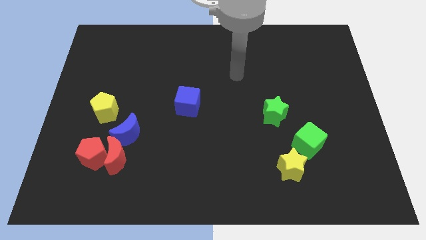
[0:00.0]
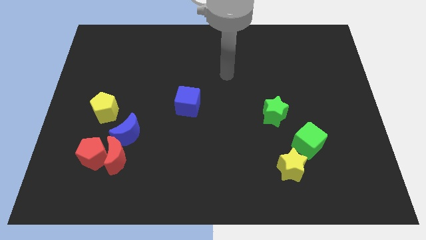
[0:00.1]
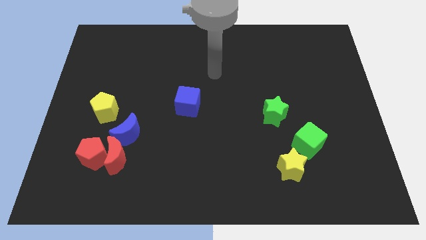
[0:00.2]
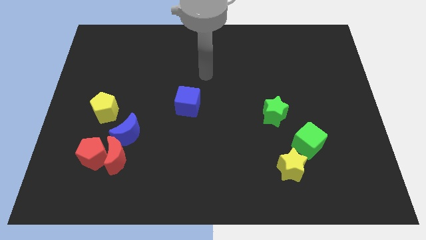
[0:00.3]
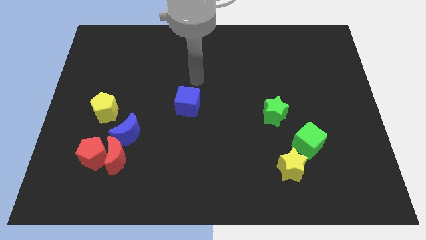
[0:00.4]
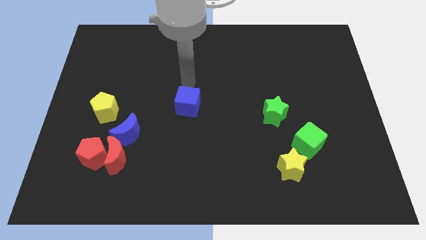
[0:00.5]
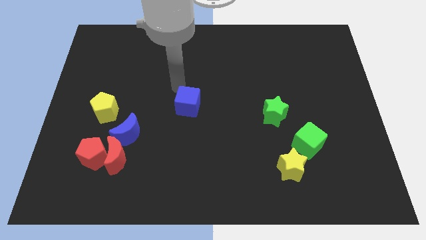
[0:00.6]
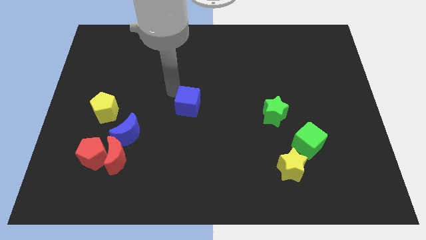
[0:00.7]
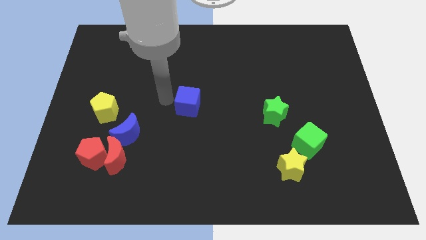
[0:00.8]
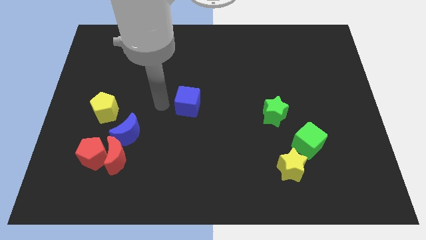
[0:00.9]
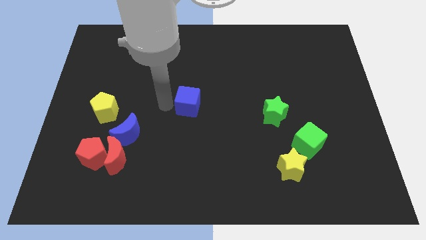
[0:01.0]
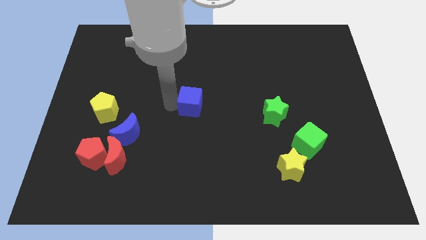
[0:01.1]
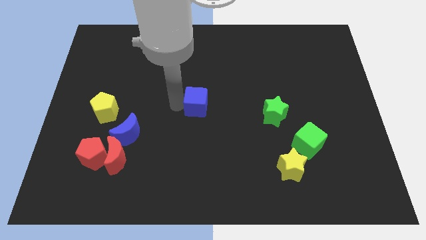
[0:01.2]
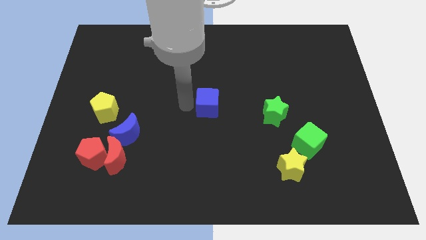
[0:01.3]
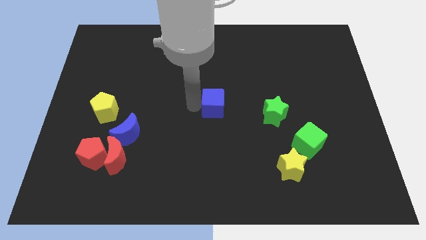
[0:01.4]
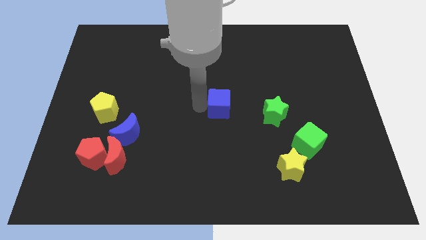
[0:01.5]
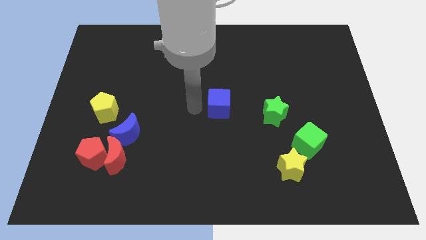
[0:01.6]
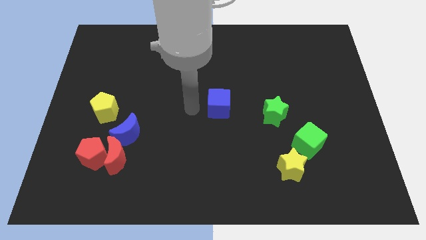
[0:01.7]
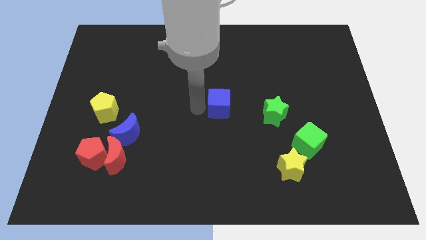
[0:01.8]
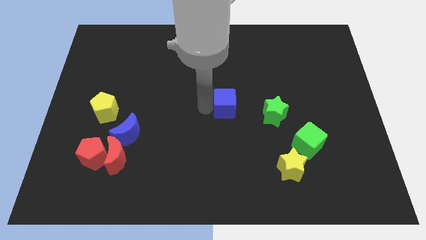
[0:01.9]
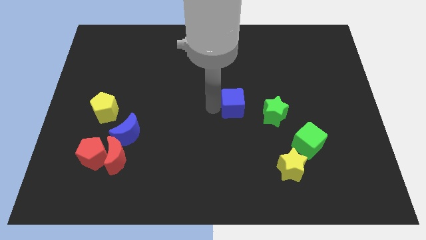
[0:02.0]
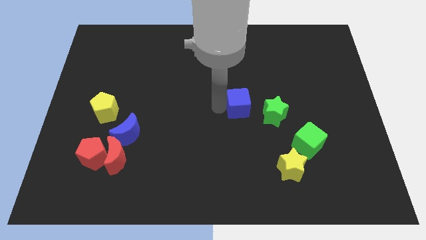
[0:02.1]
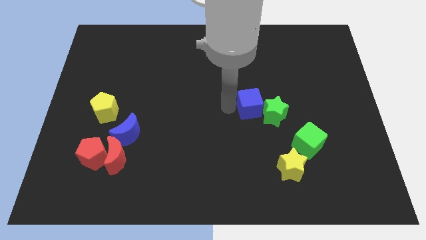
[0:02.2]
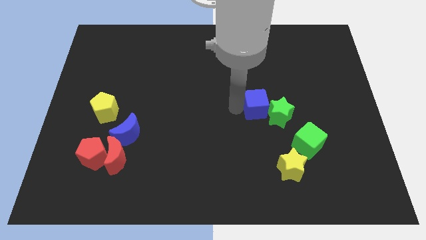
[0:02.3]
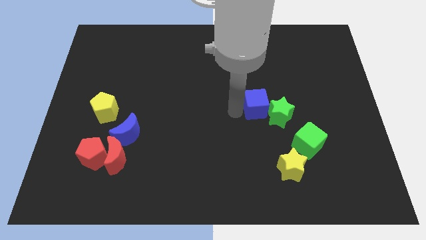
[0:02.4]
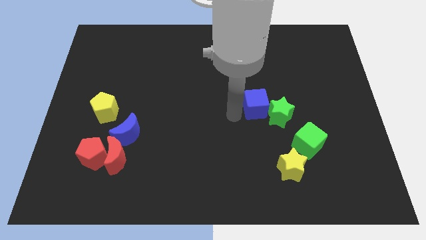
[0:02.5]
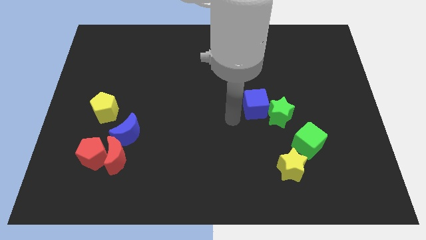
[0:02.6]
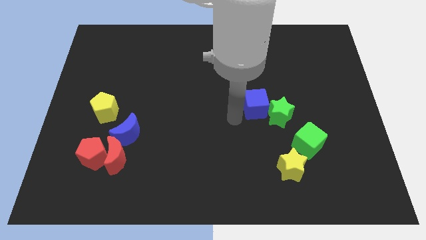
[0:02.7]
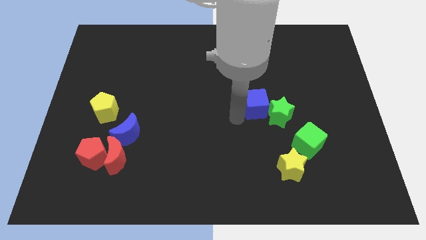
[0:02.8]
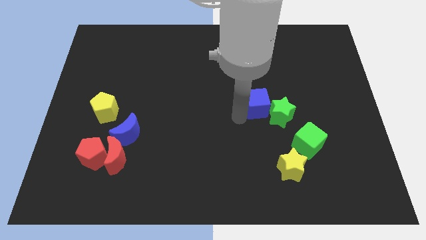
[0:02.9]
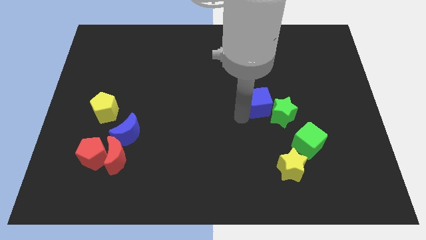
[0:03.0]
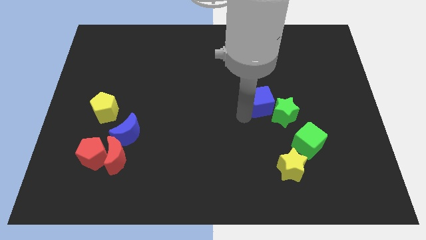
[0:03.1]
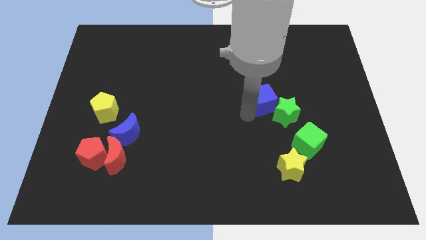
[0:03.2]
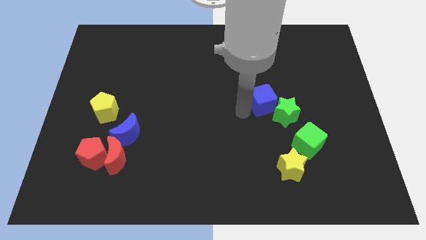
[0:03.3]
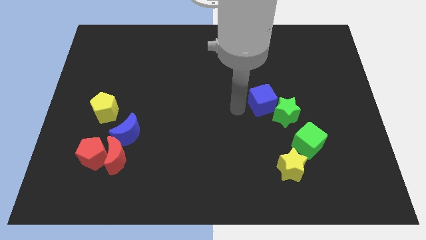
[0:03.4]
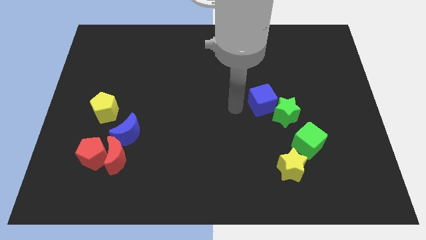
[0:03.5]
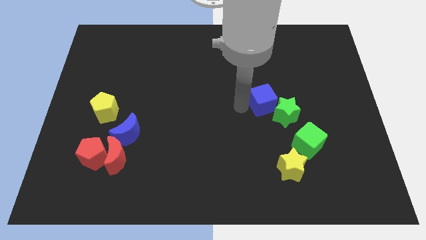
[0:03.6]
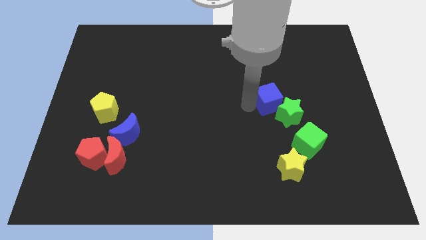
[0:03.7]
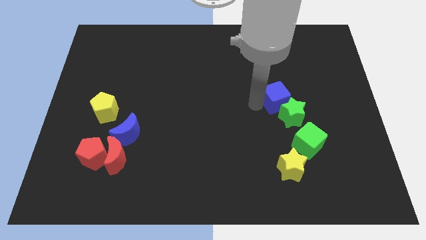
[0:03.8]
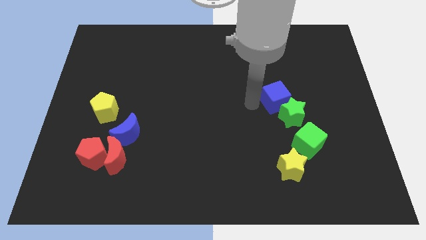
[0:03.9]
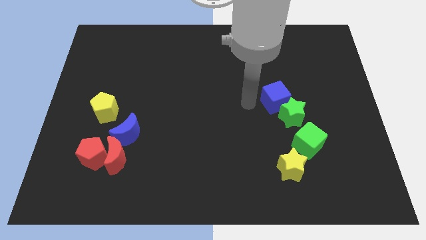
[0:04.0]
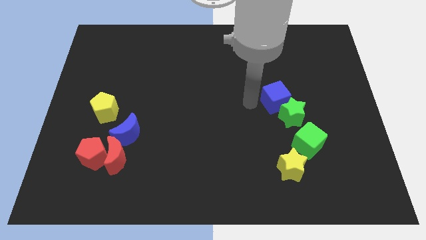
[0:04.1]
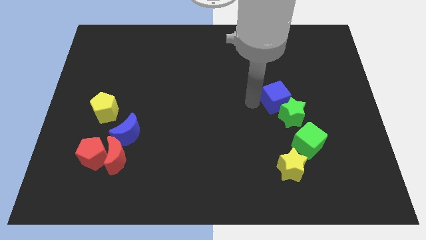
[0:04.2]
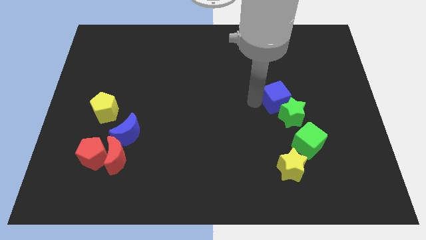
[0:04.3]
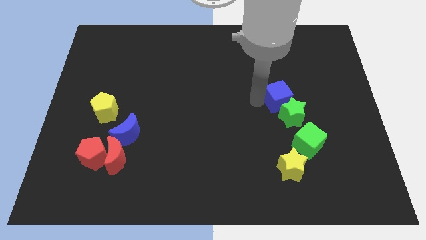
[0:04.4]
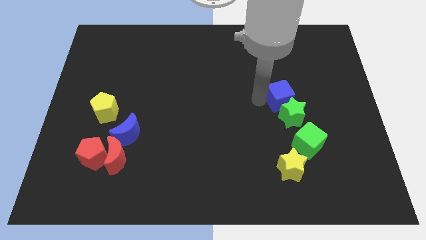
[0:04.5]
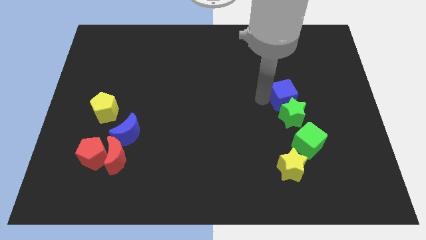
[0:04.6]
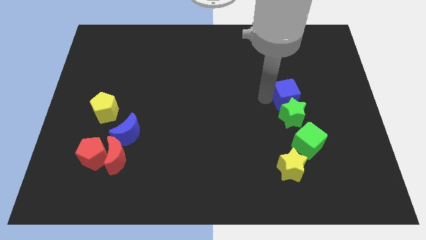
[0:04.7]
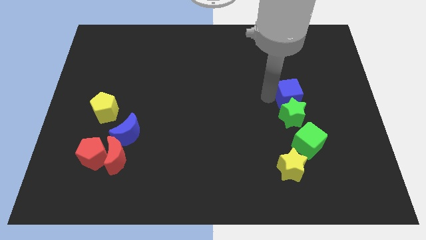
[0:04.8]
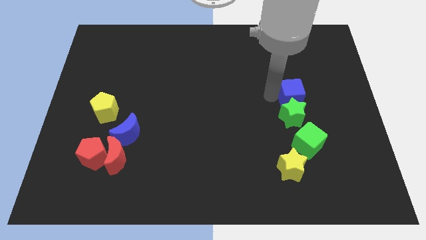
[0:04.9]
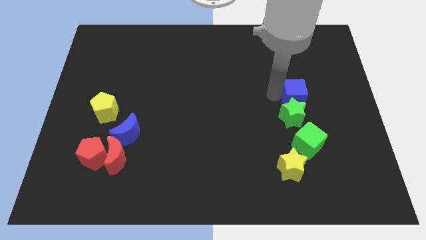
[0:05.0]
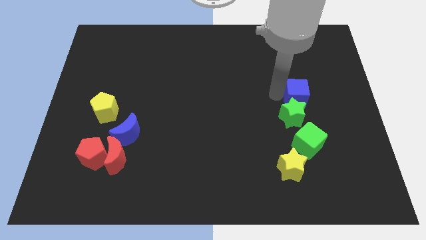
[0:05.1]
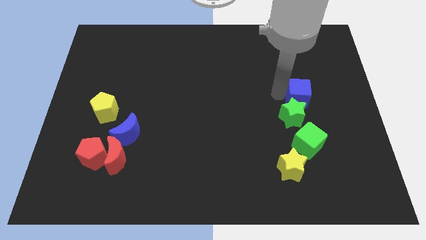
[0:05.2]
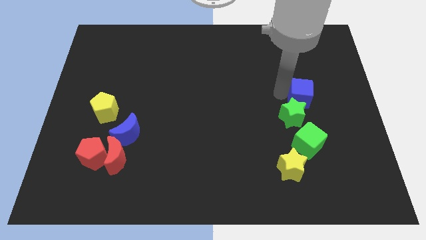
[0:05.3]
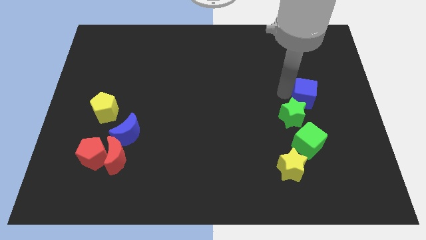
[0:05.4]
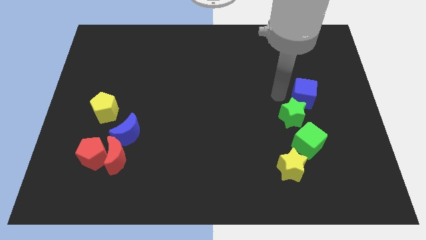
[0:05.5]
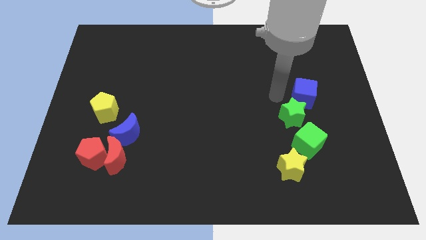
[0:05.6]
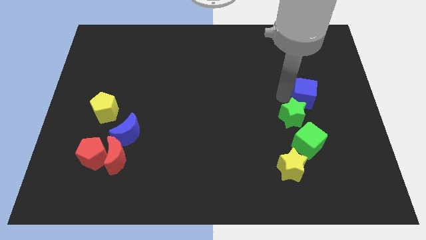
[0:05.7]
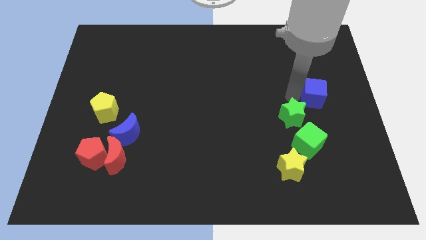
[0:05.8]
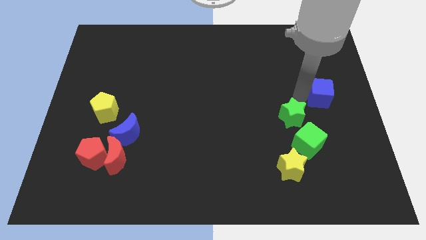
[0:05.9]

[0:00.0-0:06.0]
put the blue cube to the right side

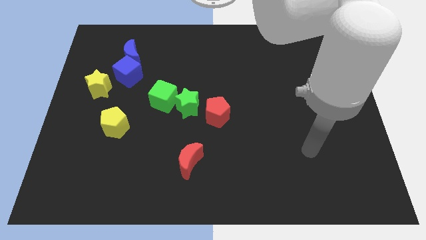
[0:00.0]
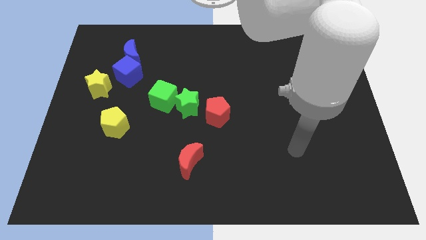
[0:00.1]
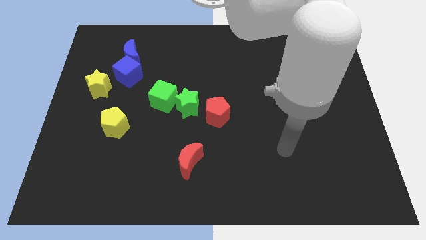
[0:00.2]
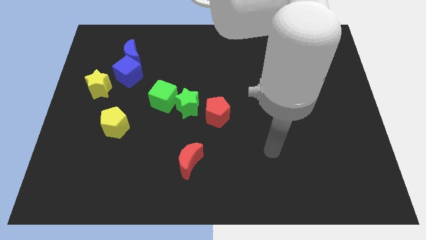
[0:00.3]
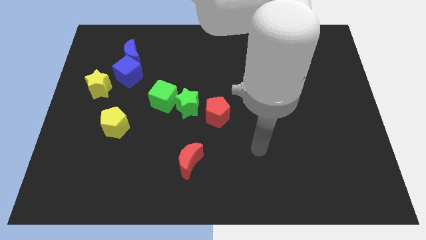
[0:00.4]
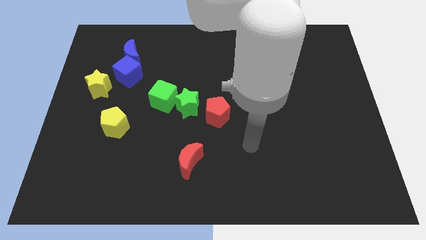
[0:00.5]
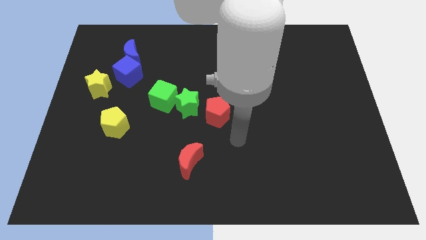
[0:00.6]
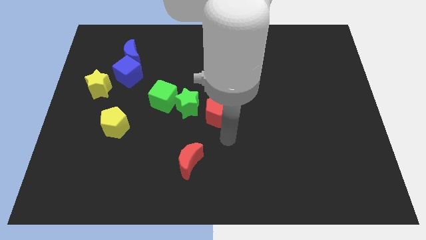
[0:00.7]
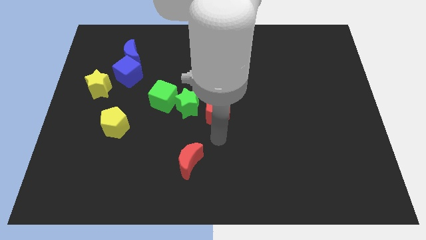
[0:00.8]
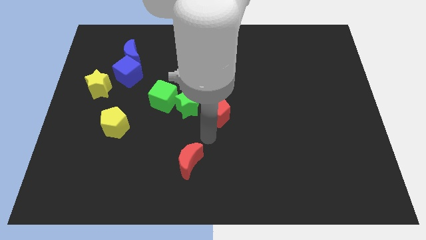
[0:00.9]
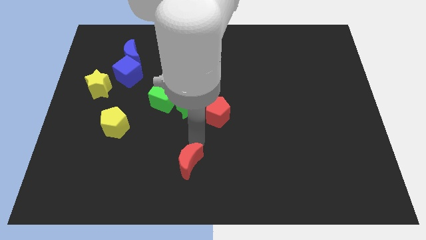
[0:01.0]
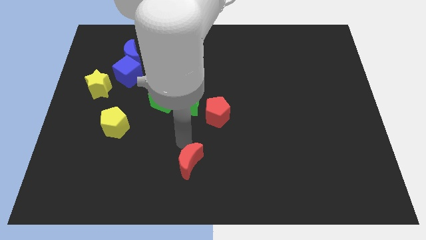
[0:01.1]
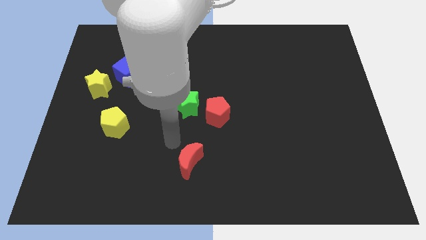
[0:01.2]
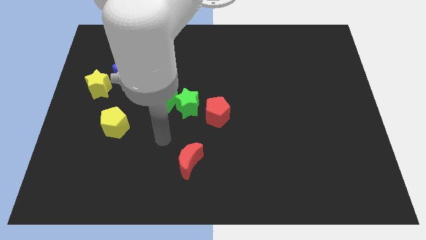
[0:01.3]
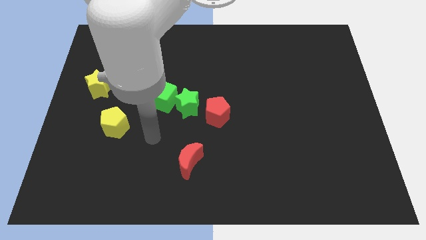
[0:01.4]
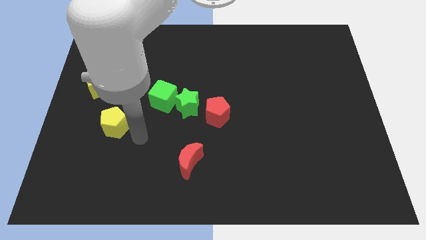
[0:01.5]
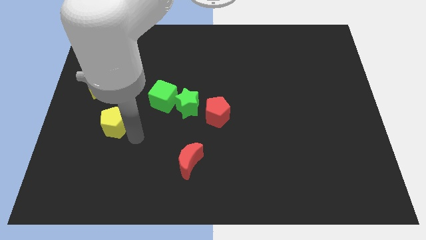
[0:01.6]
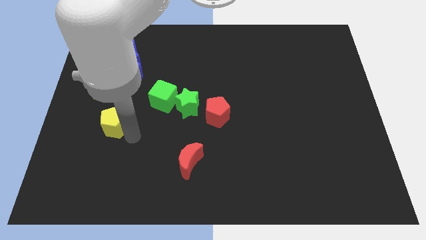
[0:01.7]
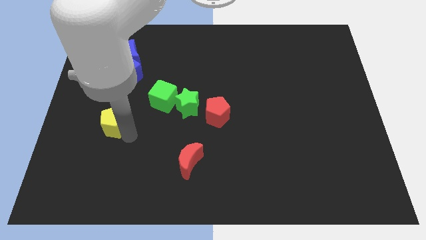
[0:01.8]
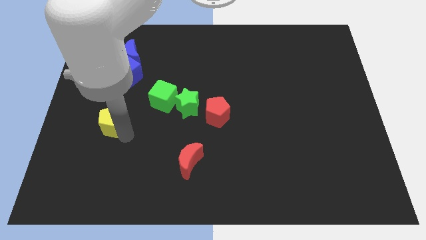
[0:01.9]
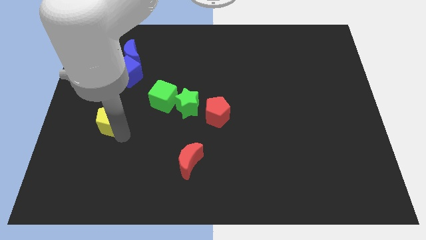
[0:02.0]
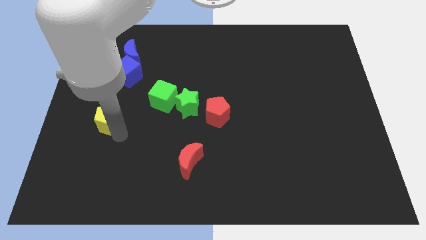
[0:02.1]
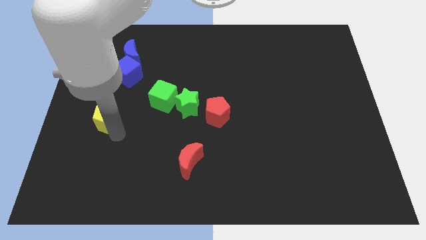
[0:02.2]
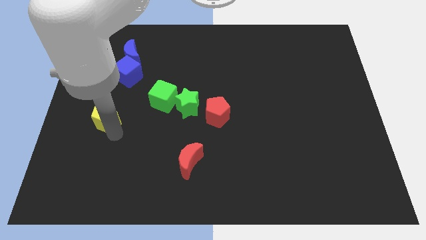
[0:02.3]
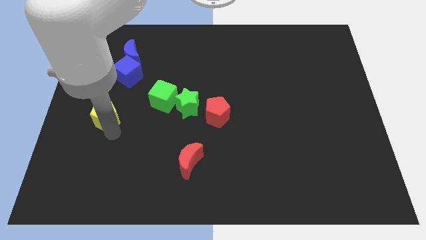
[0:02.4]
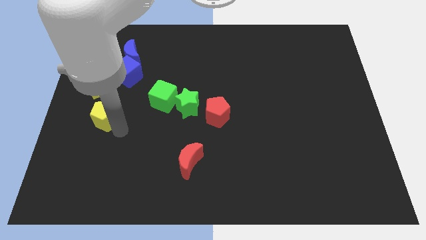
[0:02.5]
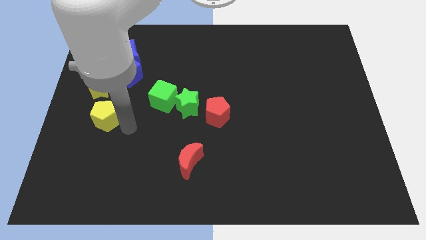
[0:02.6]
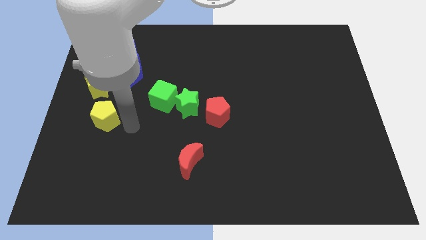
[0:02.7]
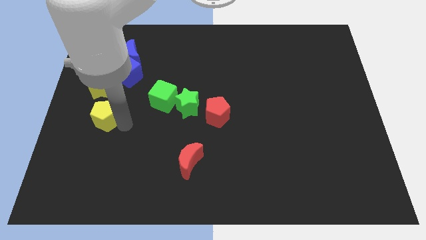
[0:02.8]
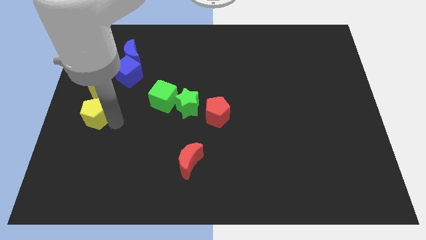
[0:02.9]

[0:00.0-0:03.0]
push the yellow pentagon to the center left
